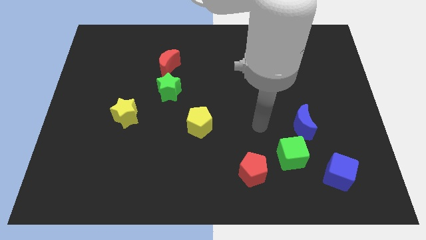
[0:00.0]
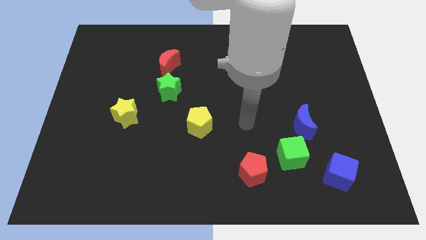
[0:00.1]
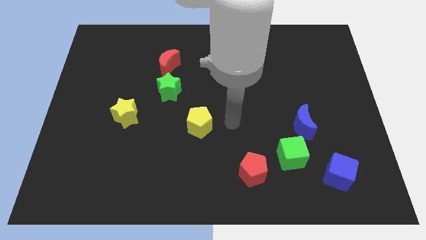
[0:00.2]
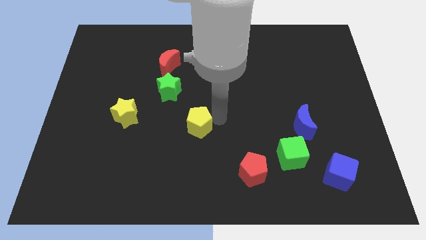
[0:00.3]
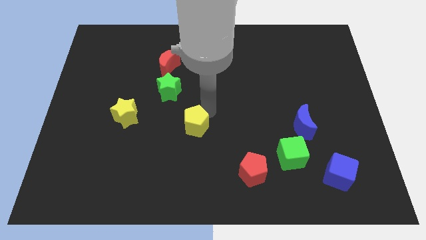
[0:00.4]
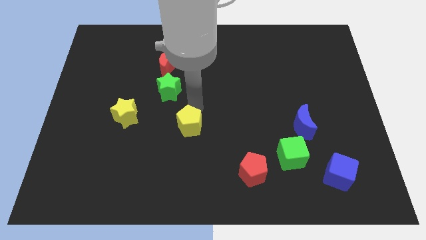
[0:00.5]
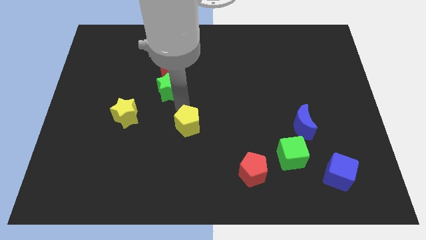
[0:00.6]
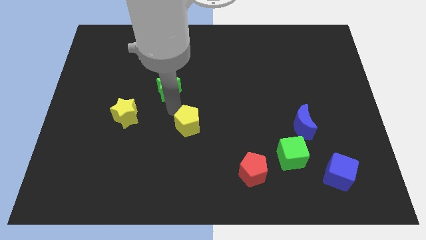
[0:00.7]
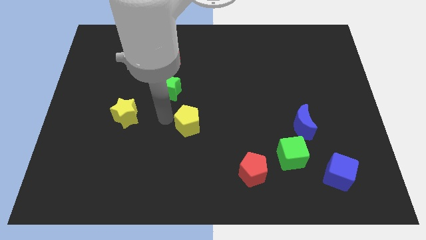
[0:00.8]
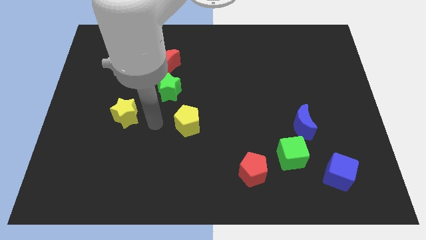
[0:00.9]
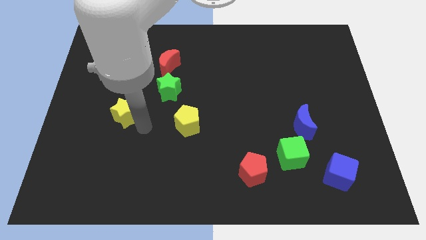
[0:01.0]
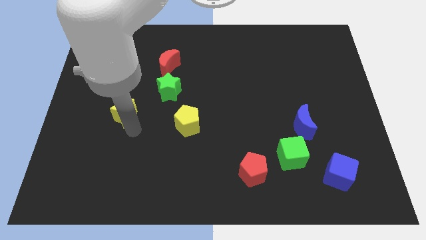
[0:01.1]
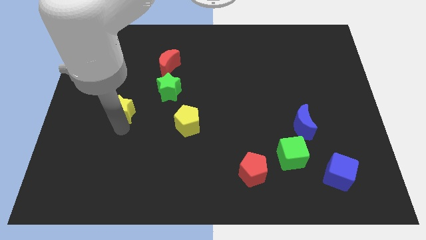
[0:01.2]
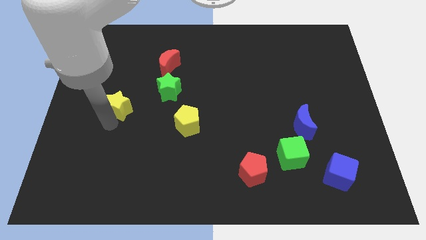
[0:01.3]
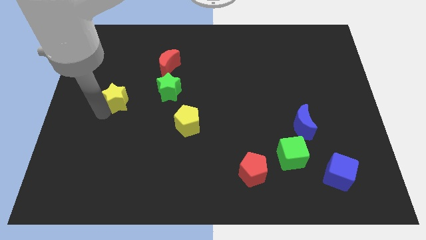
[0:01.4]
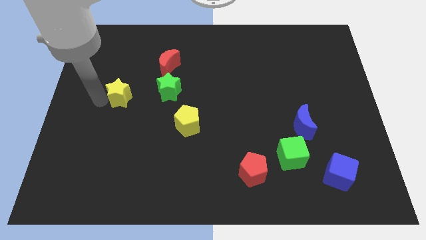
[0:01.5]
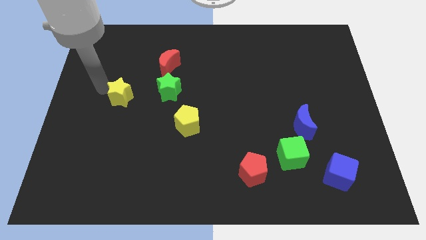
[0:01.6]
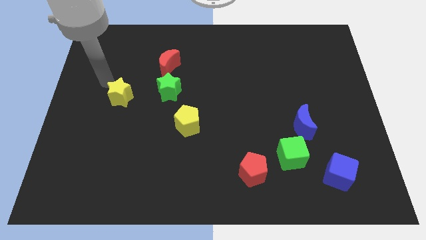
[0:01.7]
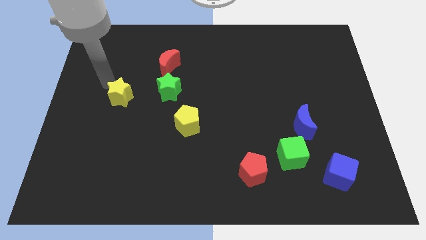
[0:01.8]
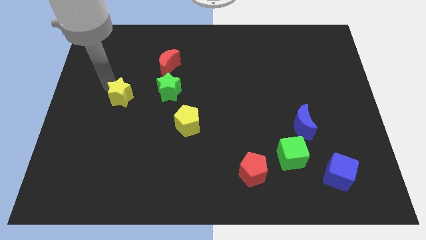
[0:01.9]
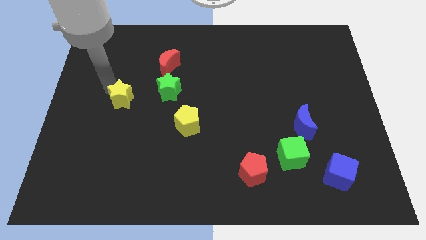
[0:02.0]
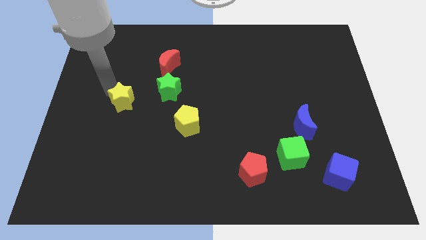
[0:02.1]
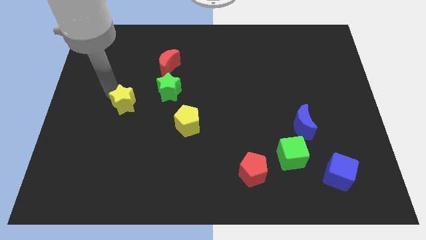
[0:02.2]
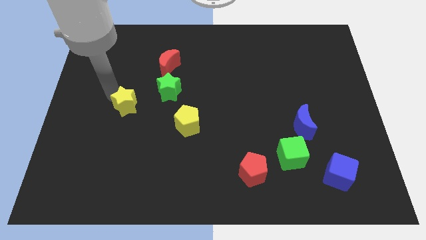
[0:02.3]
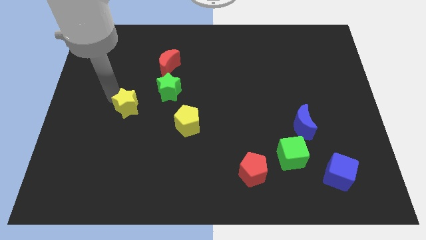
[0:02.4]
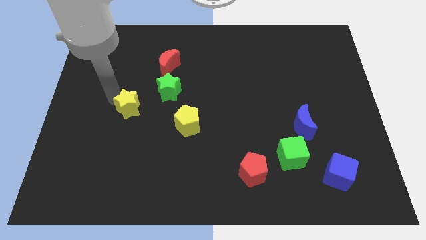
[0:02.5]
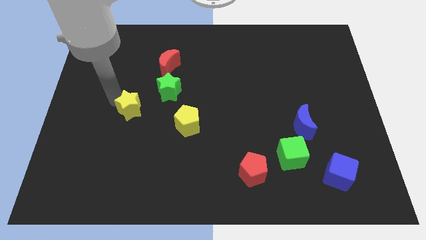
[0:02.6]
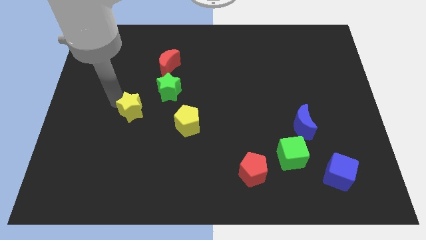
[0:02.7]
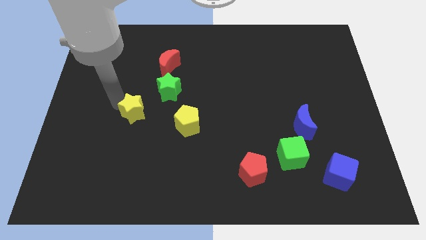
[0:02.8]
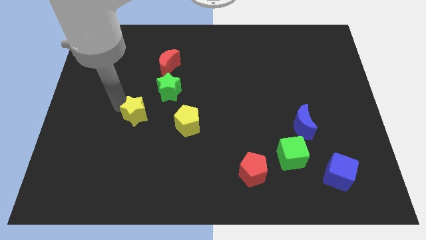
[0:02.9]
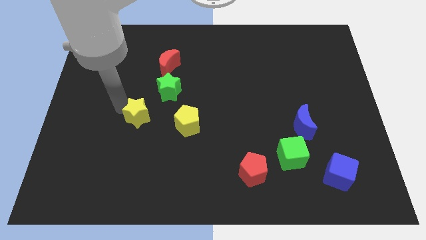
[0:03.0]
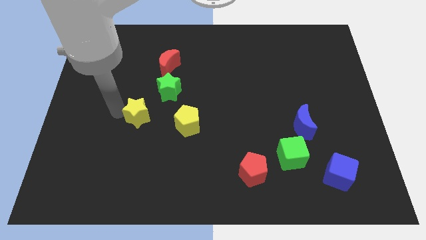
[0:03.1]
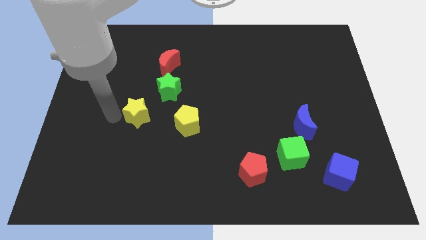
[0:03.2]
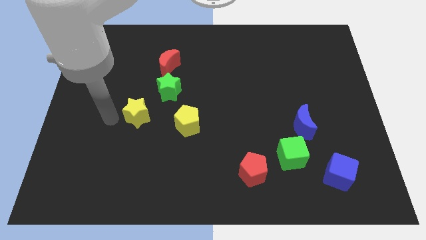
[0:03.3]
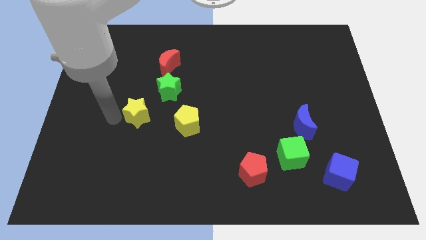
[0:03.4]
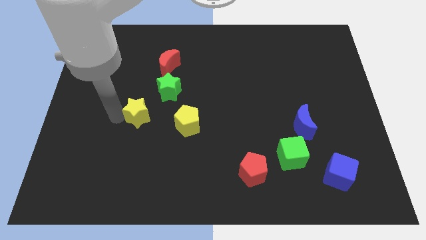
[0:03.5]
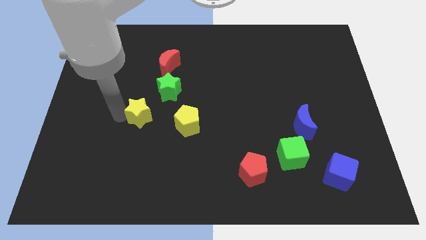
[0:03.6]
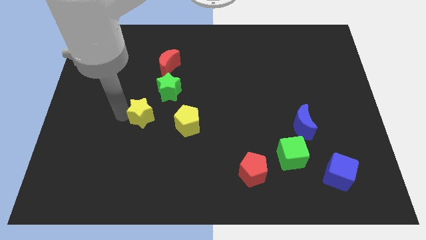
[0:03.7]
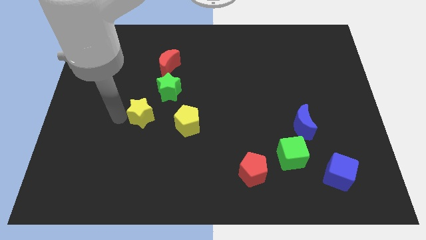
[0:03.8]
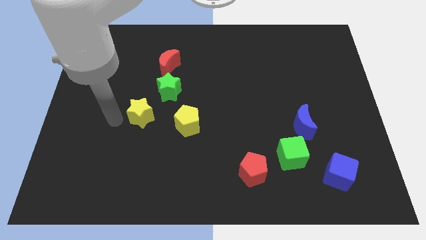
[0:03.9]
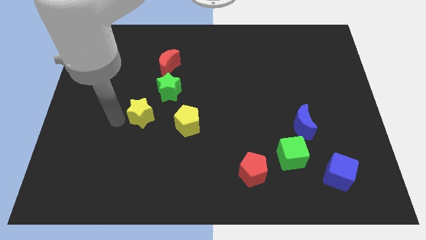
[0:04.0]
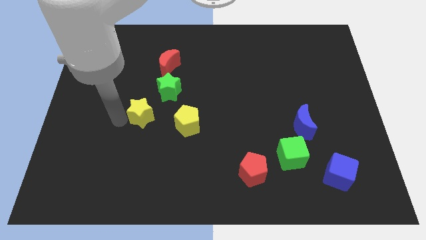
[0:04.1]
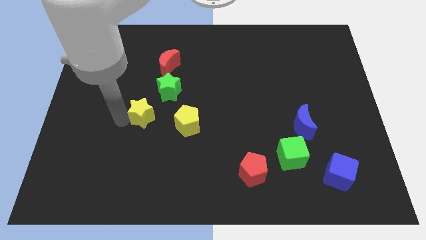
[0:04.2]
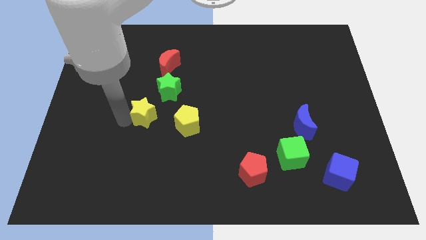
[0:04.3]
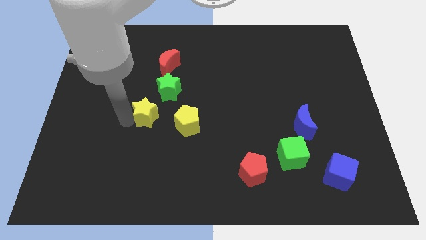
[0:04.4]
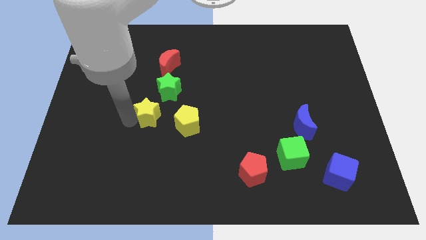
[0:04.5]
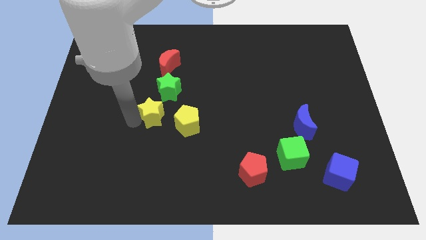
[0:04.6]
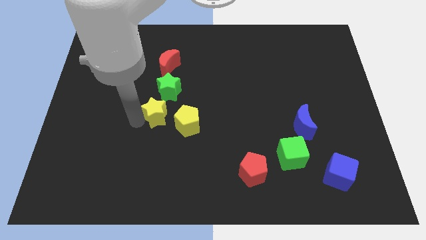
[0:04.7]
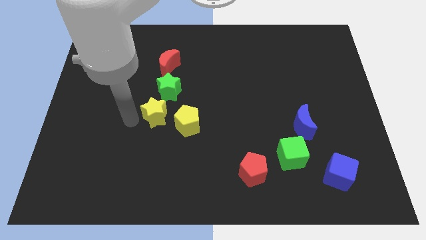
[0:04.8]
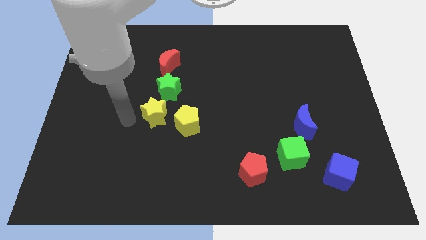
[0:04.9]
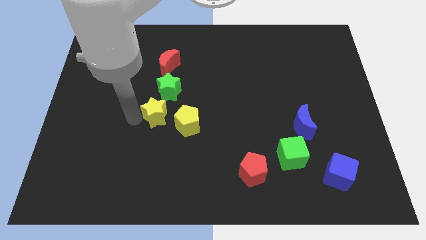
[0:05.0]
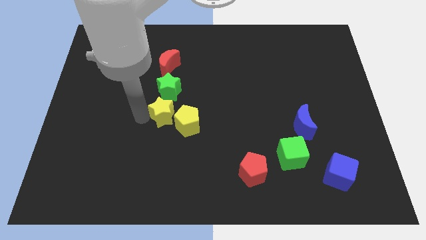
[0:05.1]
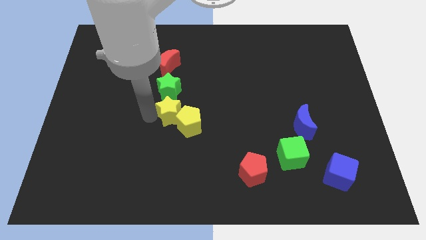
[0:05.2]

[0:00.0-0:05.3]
move the yellow star to the top of the yellow pentagon

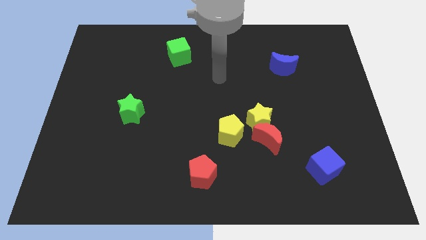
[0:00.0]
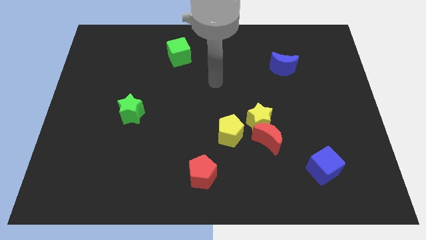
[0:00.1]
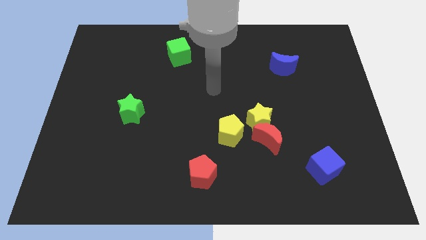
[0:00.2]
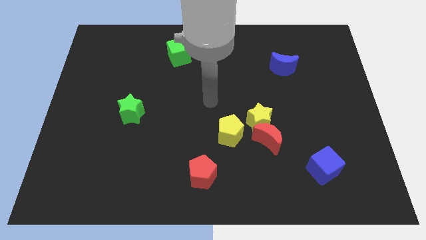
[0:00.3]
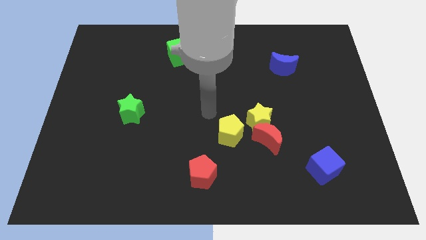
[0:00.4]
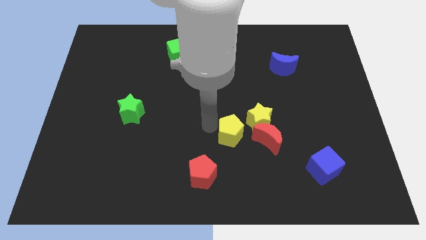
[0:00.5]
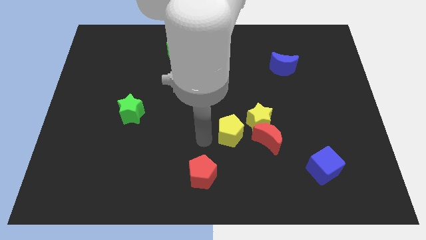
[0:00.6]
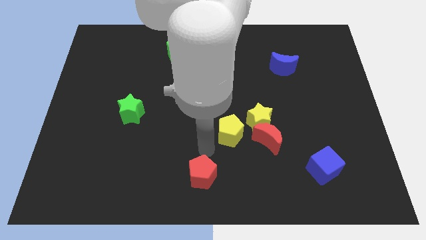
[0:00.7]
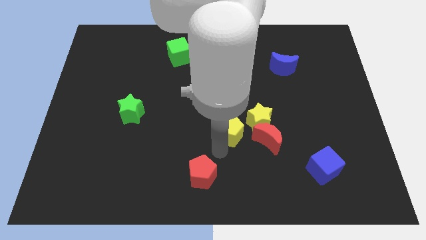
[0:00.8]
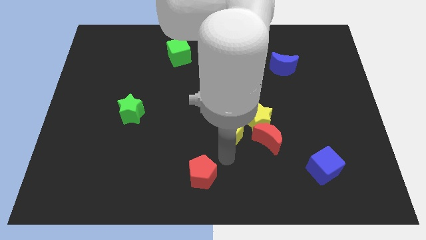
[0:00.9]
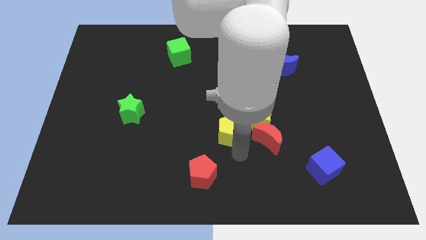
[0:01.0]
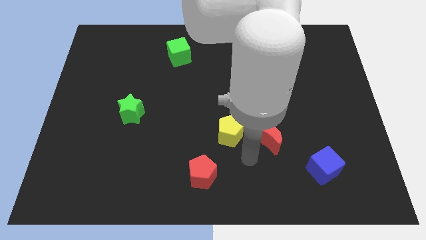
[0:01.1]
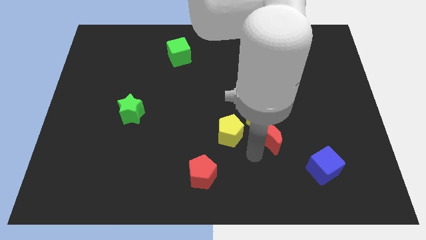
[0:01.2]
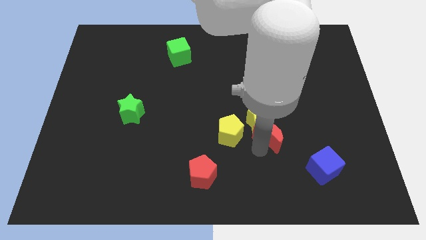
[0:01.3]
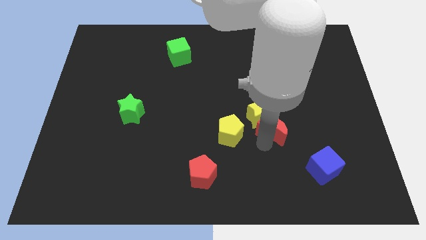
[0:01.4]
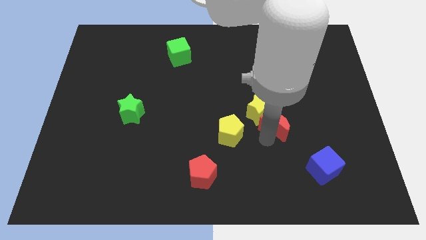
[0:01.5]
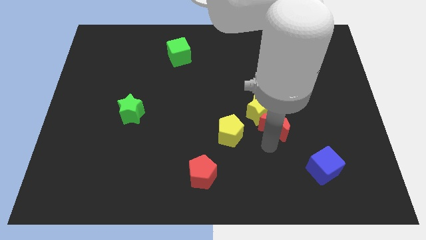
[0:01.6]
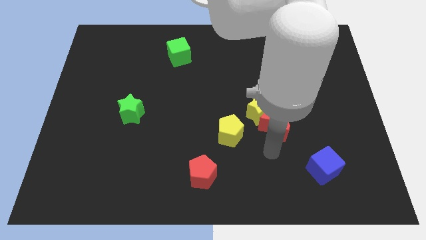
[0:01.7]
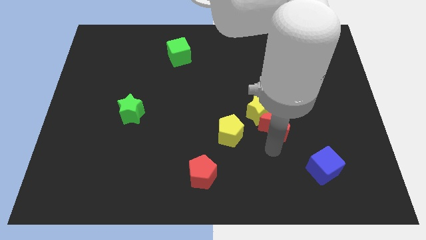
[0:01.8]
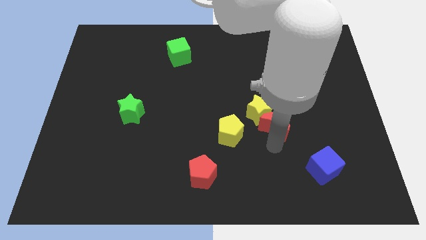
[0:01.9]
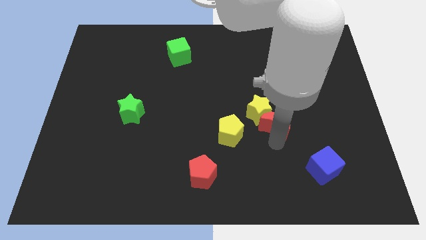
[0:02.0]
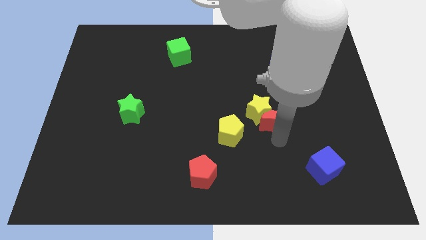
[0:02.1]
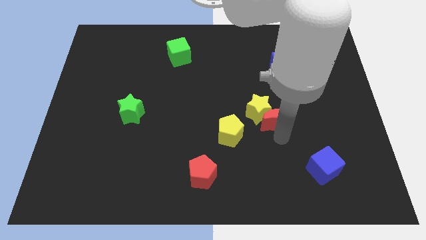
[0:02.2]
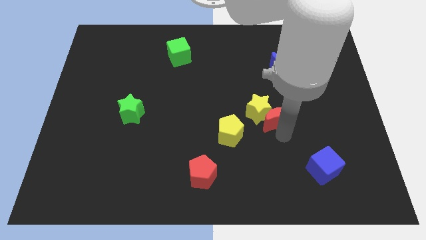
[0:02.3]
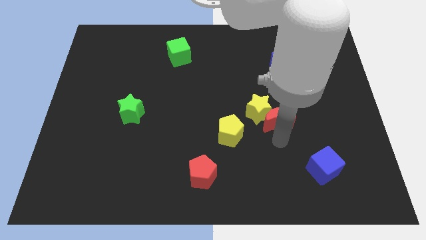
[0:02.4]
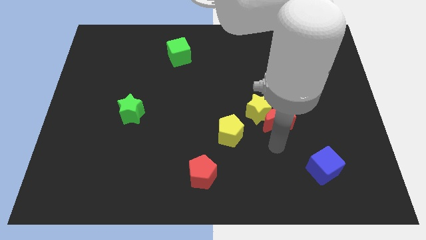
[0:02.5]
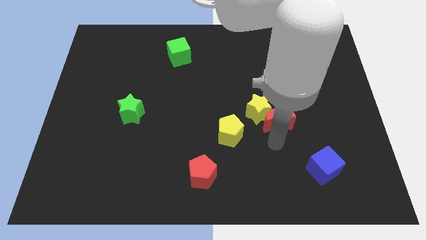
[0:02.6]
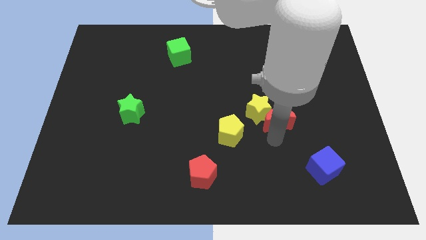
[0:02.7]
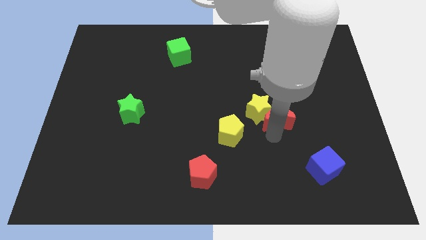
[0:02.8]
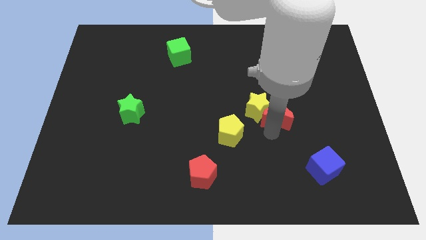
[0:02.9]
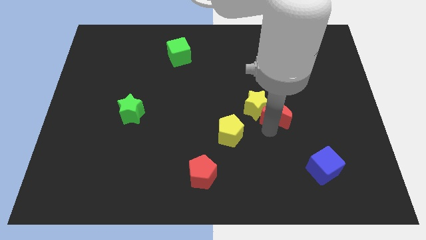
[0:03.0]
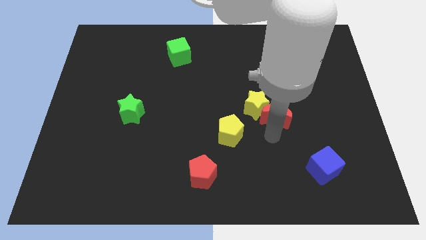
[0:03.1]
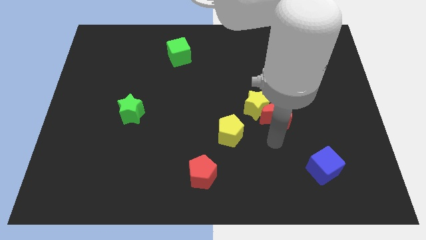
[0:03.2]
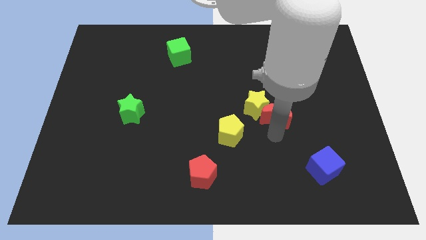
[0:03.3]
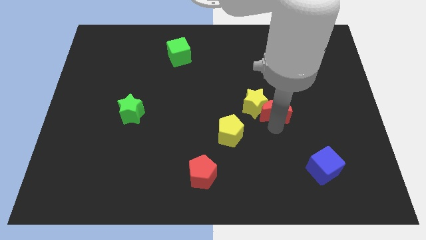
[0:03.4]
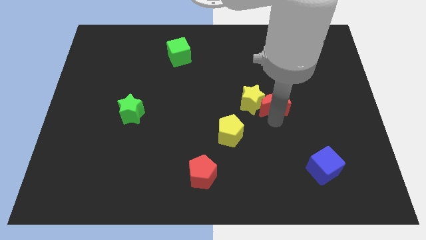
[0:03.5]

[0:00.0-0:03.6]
move the red moon diagonally up and to the right of the yellow star
